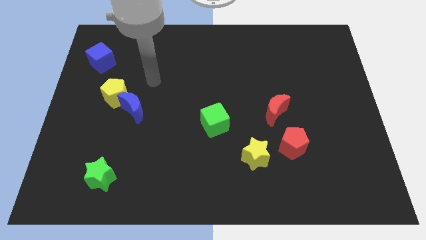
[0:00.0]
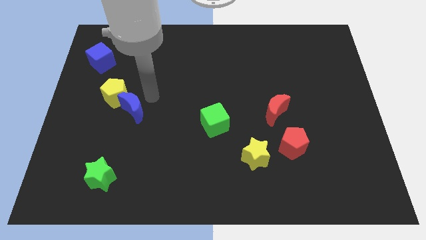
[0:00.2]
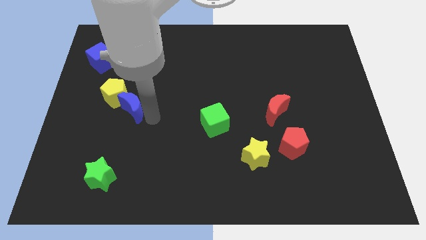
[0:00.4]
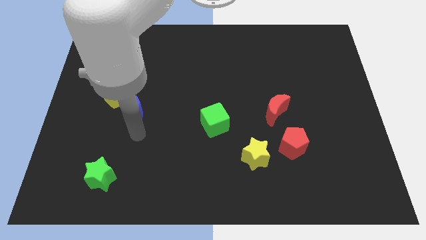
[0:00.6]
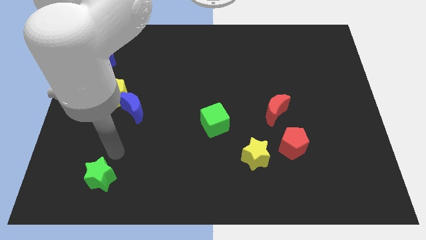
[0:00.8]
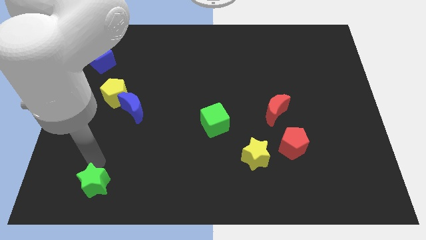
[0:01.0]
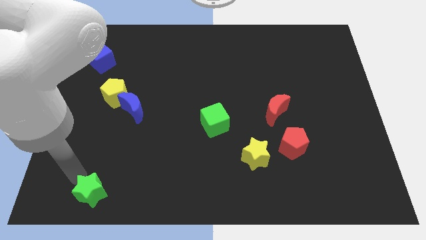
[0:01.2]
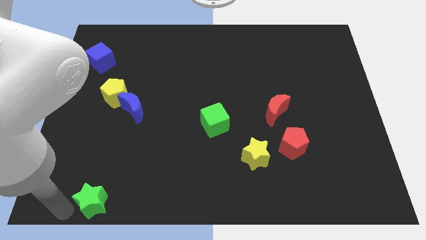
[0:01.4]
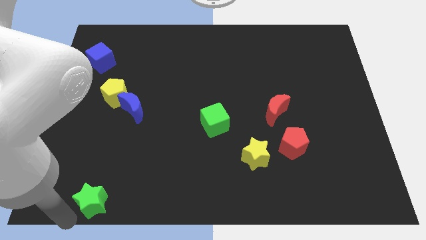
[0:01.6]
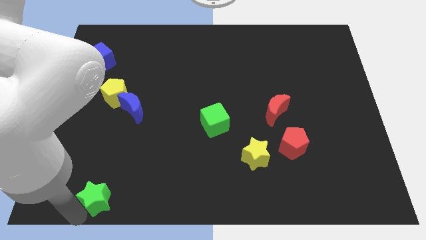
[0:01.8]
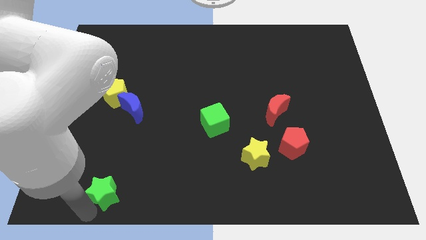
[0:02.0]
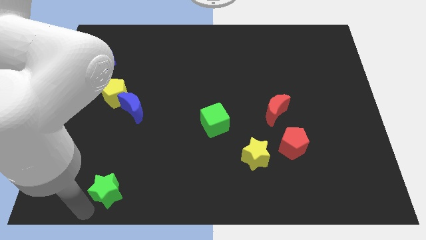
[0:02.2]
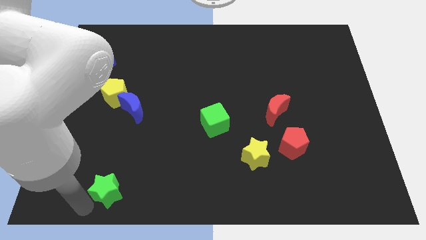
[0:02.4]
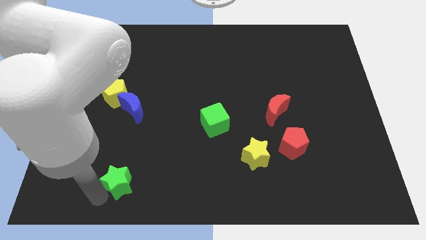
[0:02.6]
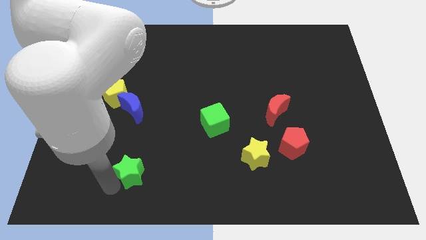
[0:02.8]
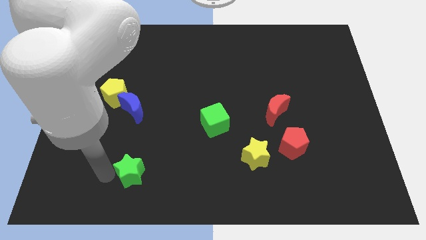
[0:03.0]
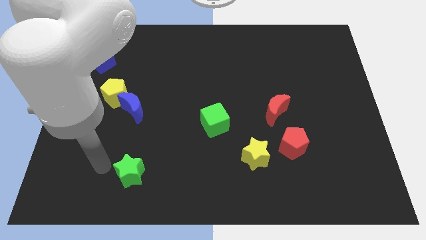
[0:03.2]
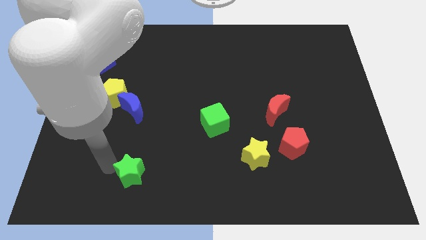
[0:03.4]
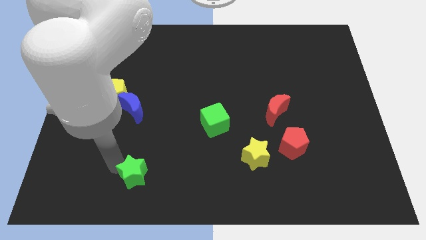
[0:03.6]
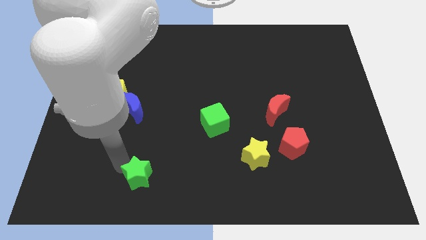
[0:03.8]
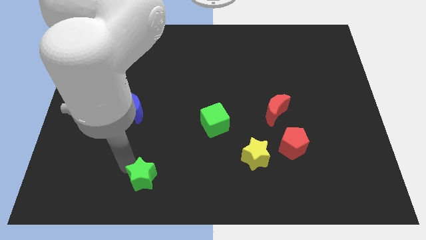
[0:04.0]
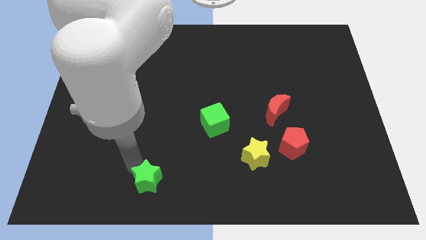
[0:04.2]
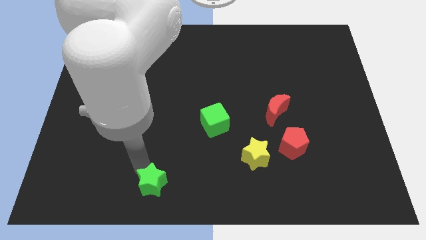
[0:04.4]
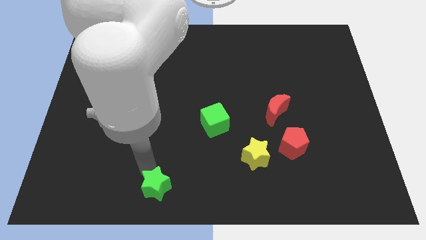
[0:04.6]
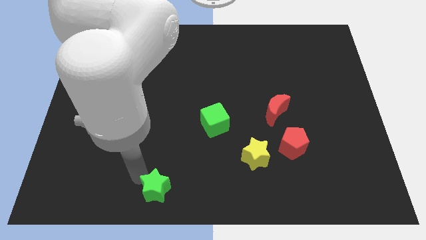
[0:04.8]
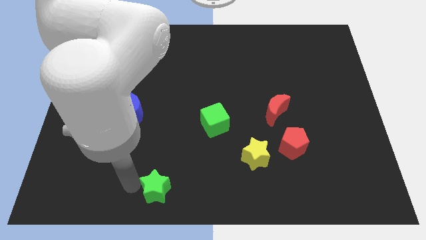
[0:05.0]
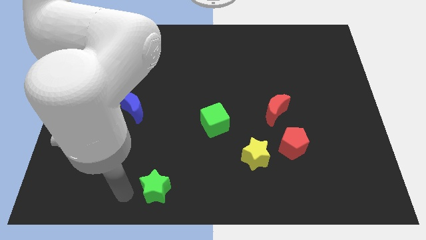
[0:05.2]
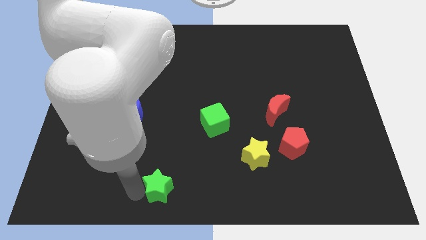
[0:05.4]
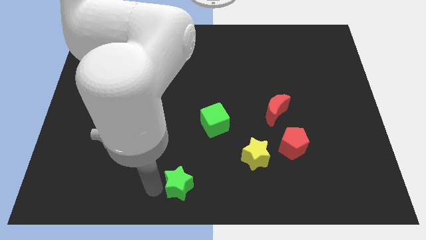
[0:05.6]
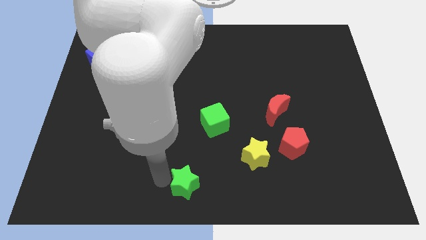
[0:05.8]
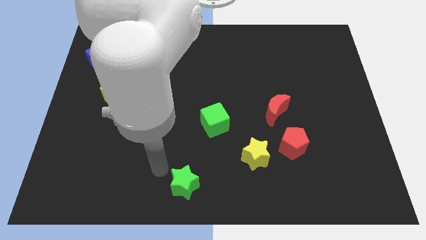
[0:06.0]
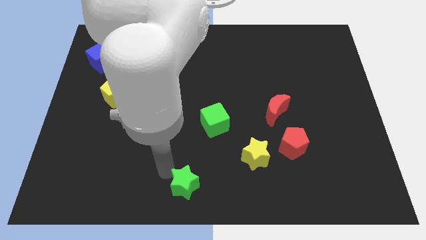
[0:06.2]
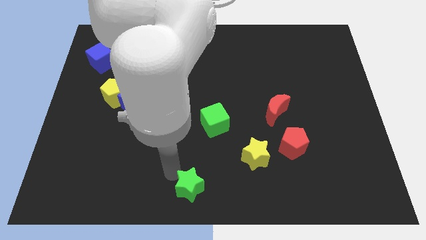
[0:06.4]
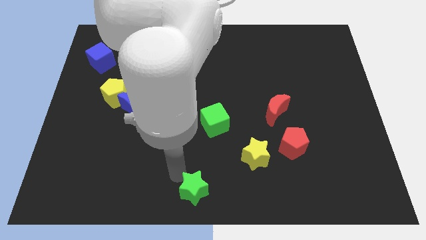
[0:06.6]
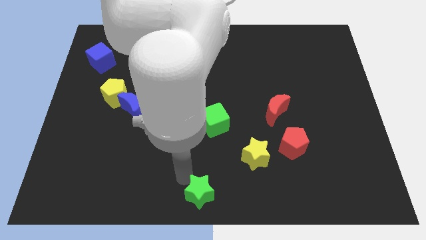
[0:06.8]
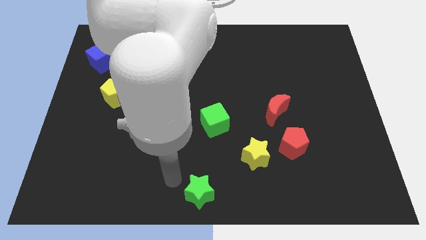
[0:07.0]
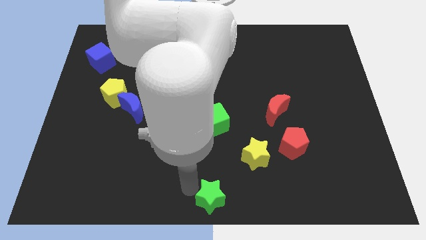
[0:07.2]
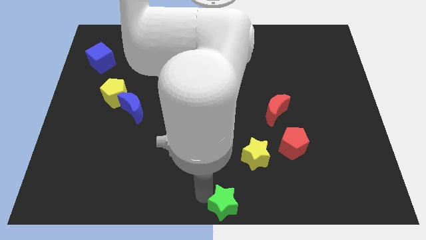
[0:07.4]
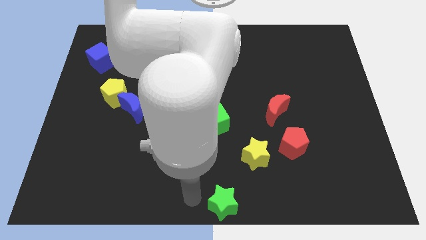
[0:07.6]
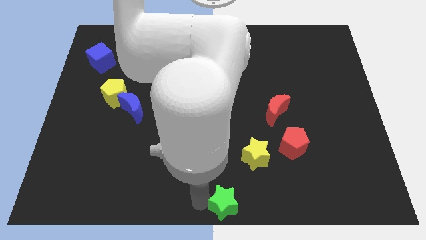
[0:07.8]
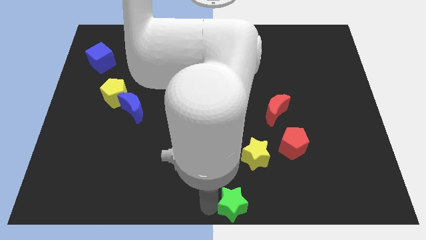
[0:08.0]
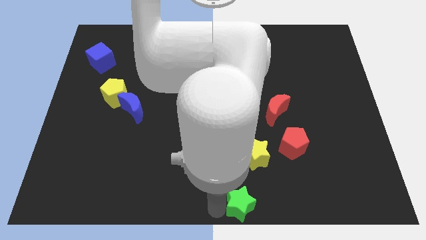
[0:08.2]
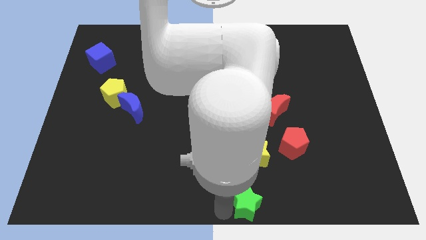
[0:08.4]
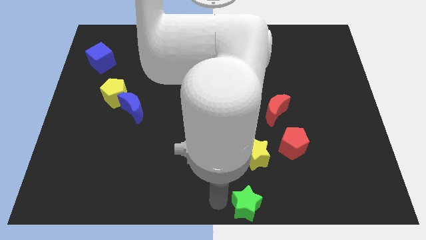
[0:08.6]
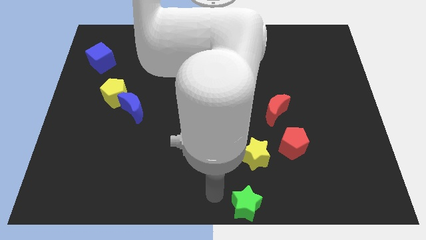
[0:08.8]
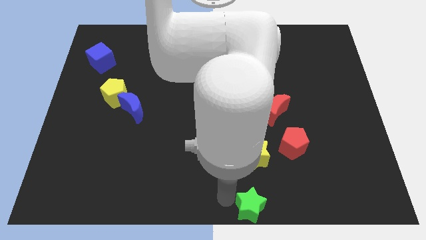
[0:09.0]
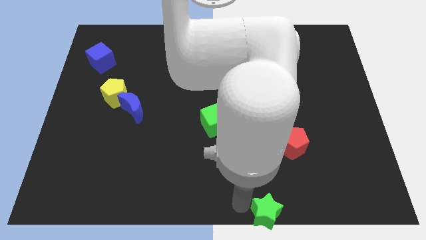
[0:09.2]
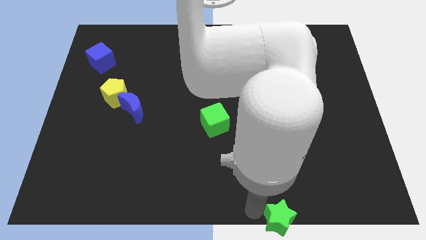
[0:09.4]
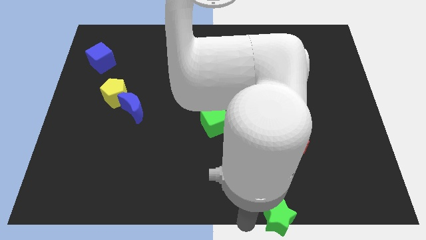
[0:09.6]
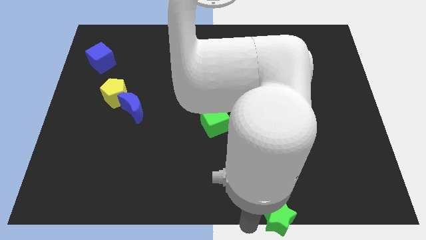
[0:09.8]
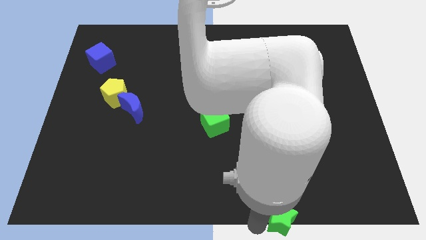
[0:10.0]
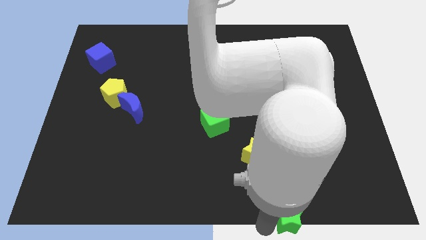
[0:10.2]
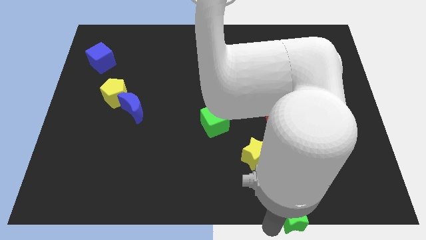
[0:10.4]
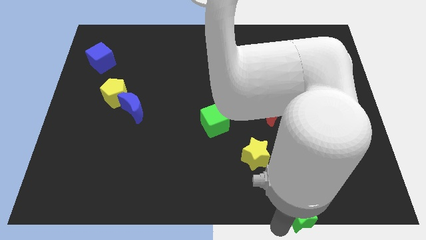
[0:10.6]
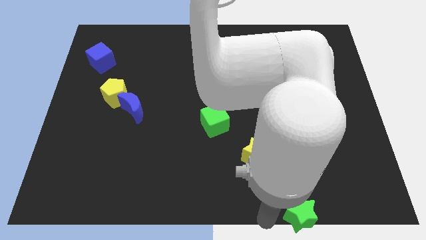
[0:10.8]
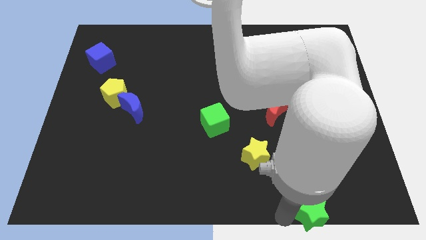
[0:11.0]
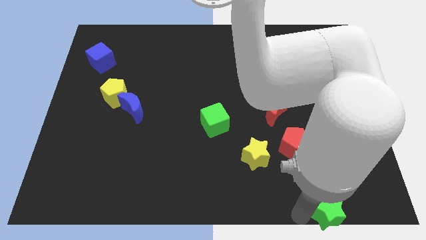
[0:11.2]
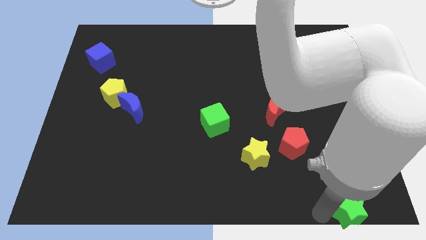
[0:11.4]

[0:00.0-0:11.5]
move the green star to the lower right corner
